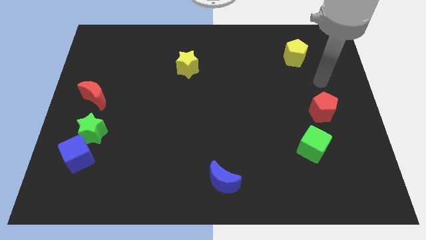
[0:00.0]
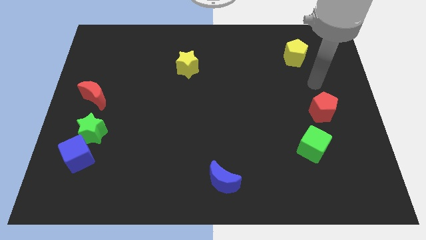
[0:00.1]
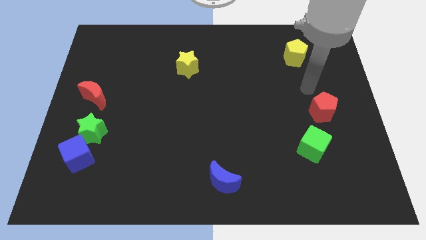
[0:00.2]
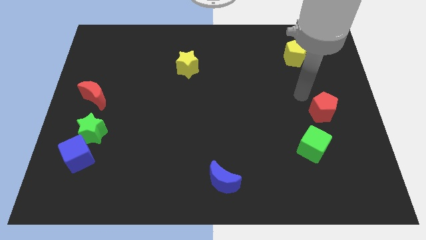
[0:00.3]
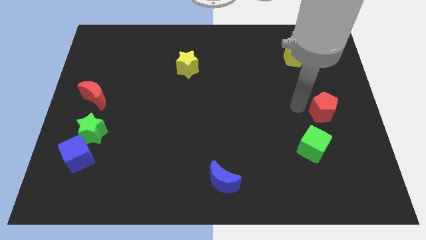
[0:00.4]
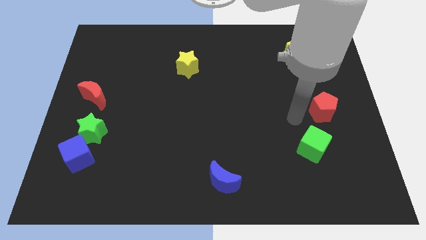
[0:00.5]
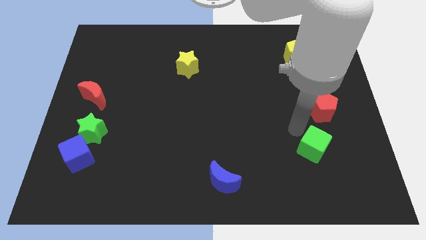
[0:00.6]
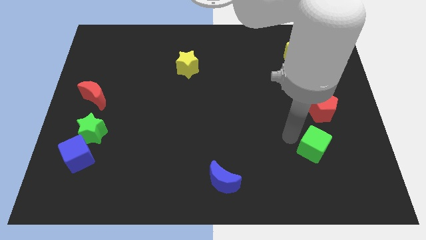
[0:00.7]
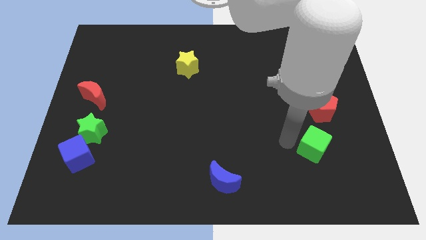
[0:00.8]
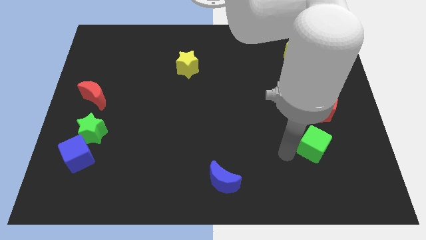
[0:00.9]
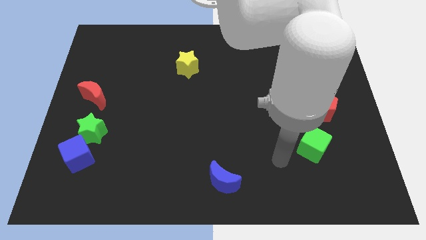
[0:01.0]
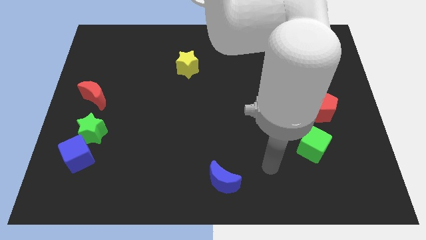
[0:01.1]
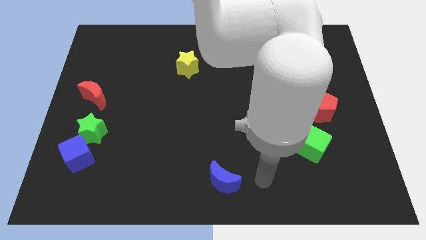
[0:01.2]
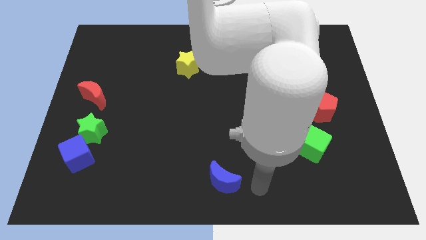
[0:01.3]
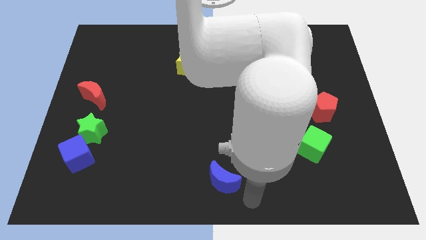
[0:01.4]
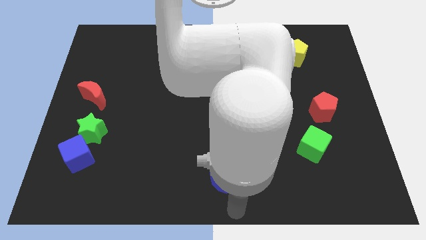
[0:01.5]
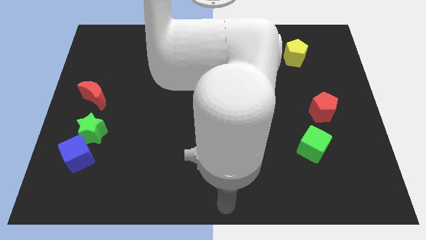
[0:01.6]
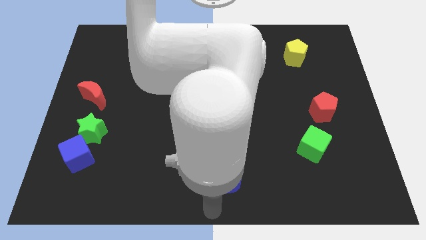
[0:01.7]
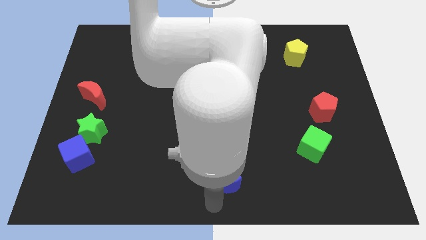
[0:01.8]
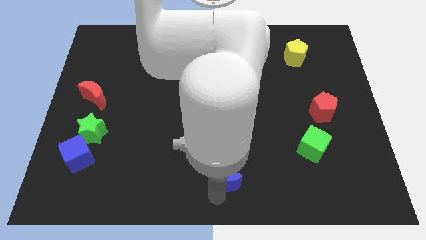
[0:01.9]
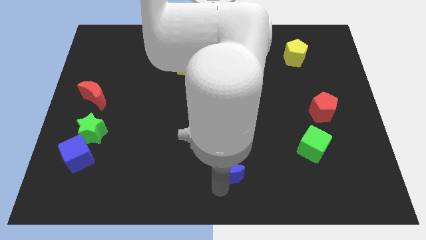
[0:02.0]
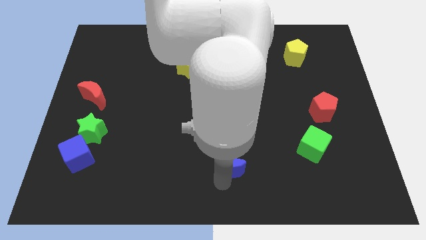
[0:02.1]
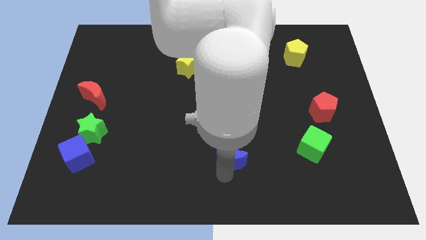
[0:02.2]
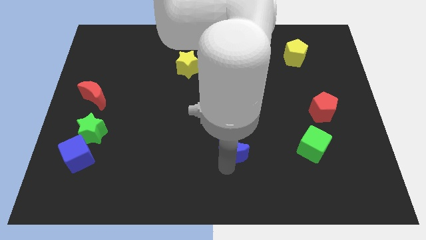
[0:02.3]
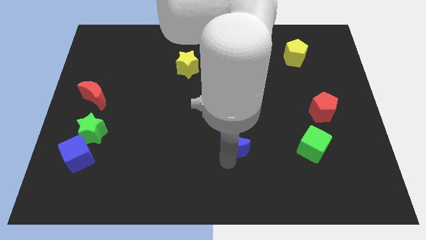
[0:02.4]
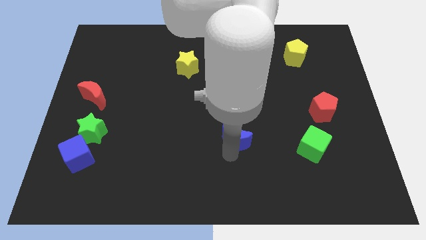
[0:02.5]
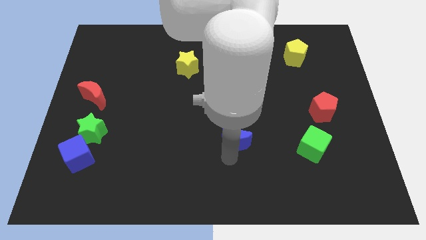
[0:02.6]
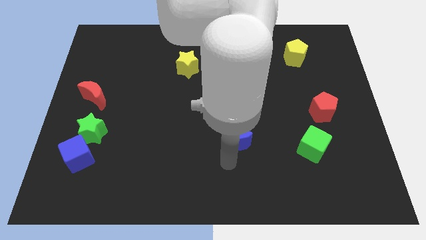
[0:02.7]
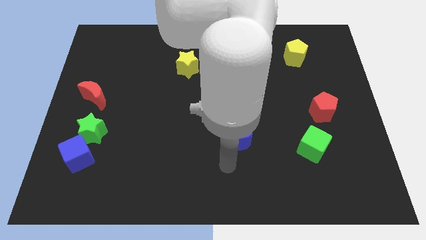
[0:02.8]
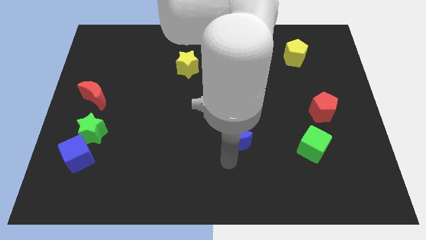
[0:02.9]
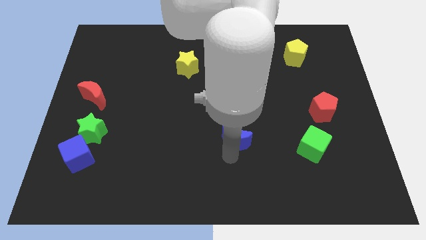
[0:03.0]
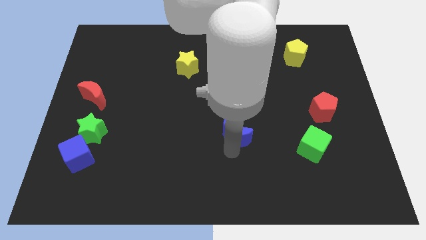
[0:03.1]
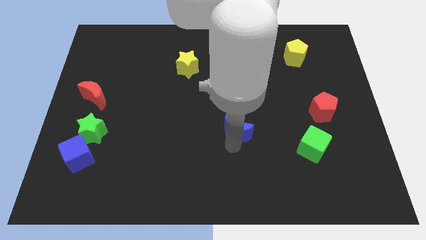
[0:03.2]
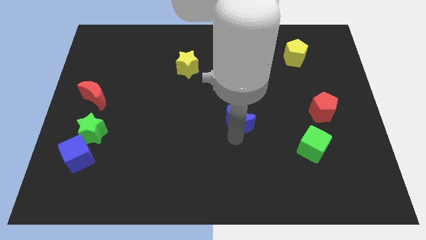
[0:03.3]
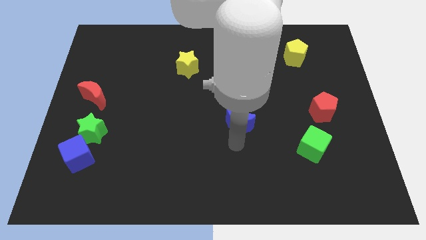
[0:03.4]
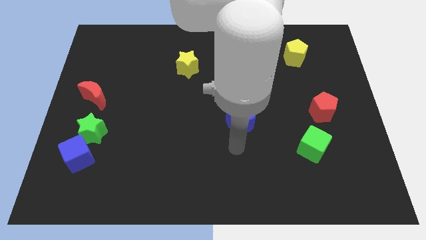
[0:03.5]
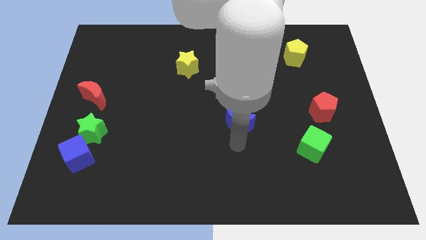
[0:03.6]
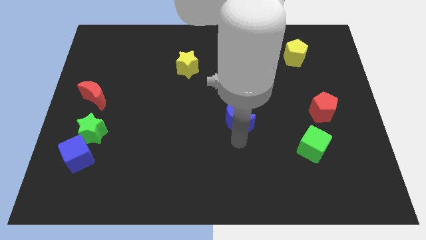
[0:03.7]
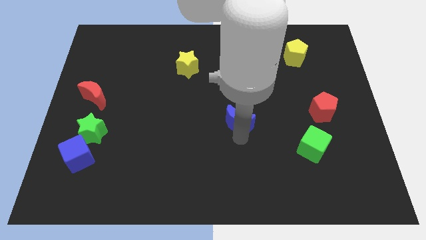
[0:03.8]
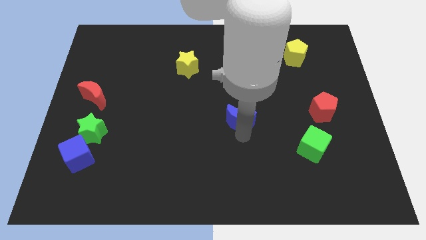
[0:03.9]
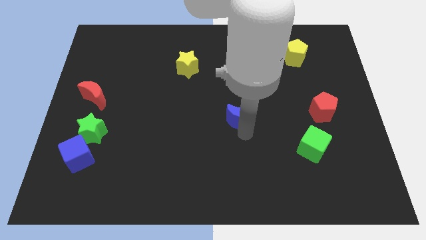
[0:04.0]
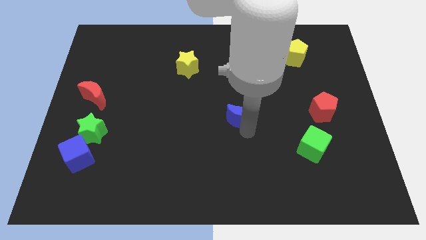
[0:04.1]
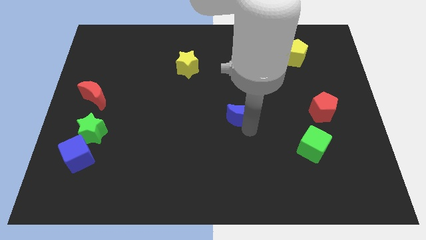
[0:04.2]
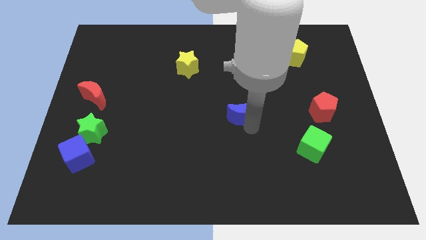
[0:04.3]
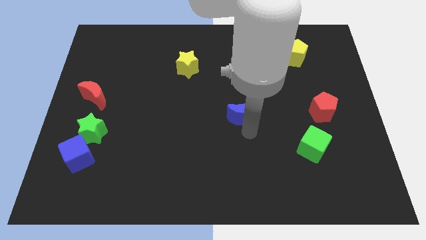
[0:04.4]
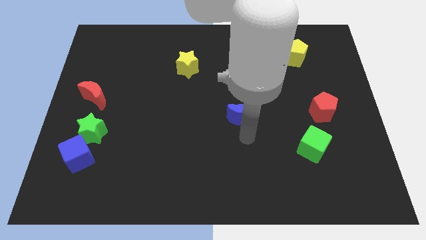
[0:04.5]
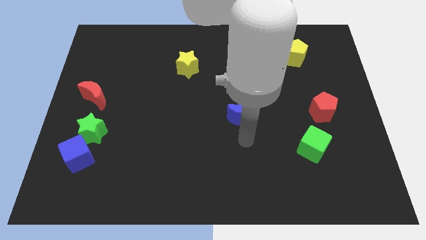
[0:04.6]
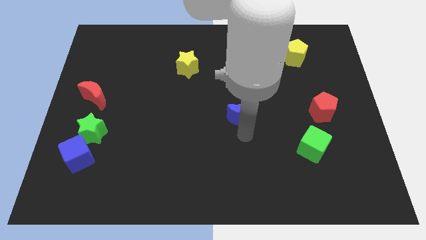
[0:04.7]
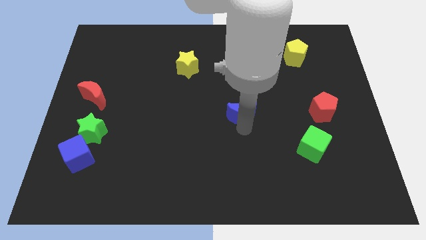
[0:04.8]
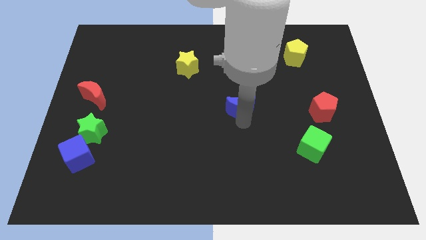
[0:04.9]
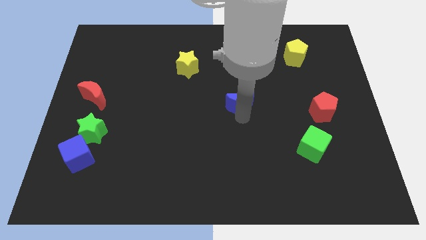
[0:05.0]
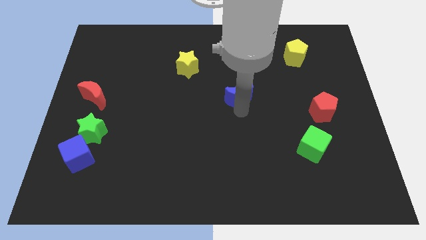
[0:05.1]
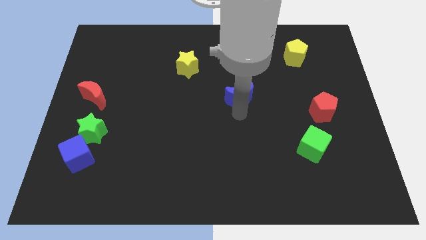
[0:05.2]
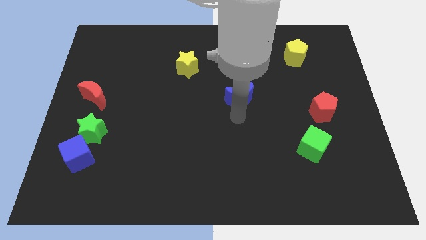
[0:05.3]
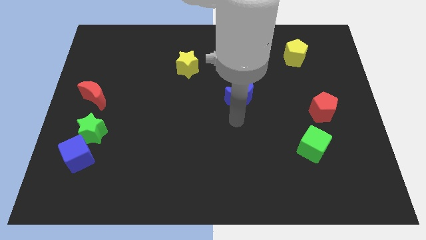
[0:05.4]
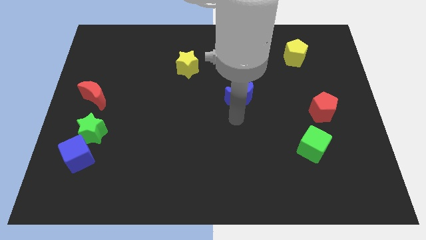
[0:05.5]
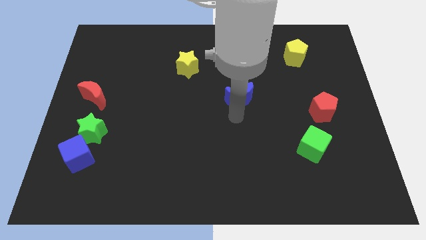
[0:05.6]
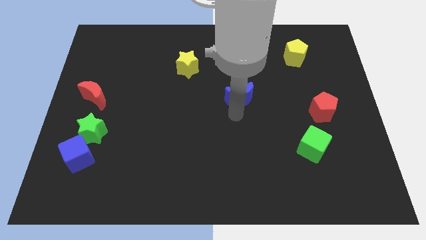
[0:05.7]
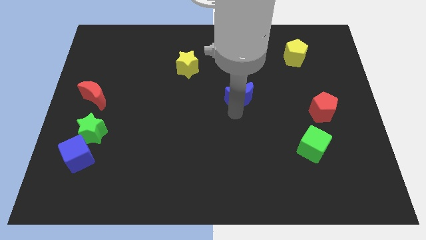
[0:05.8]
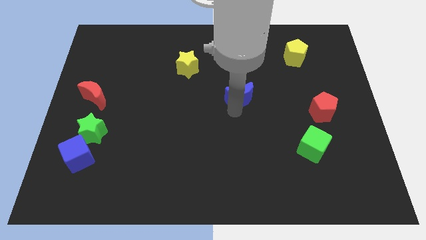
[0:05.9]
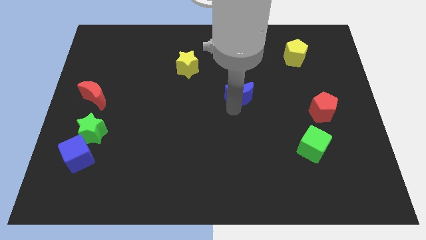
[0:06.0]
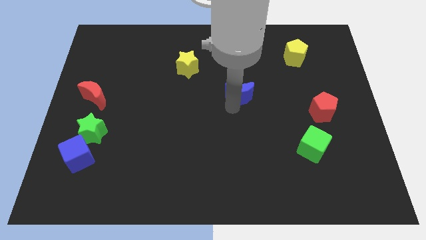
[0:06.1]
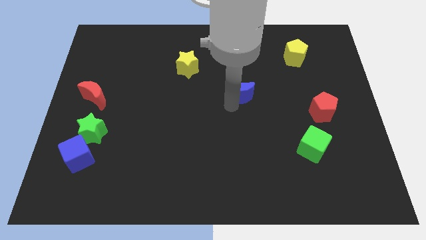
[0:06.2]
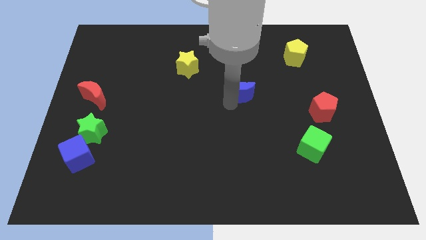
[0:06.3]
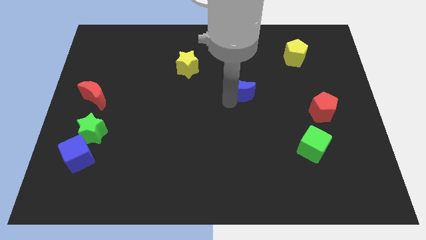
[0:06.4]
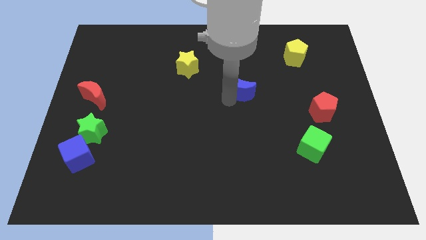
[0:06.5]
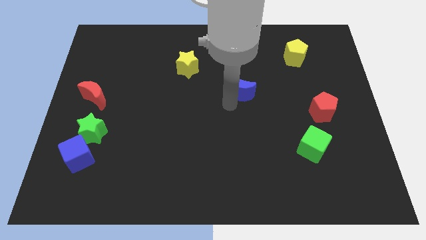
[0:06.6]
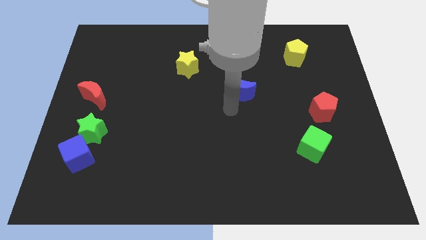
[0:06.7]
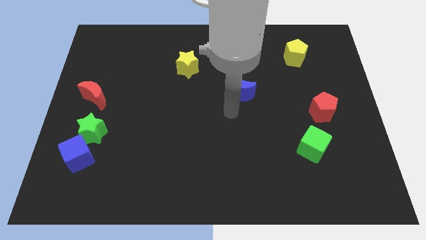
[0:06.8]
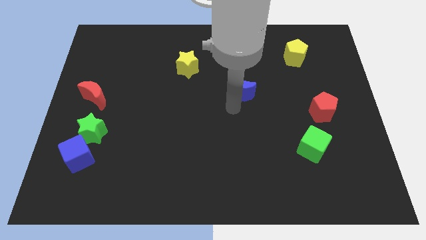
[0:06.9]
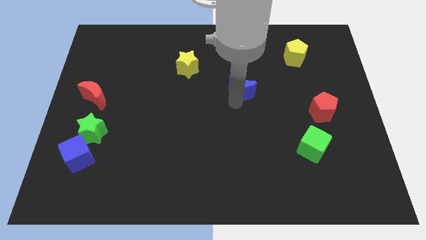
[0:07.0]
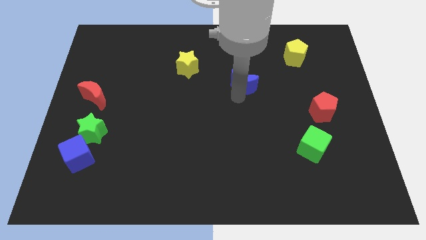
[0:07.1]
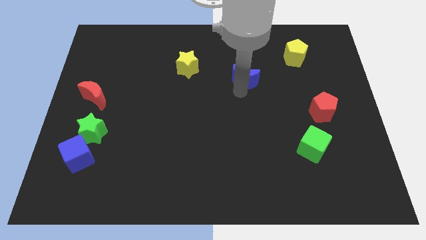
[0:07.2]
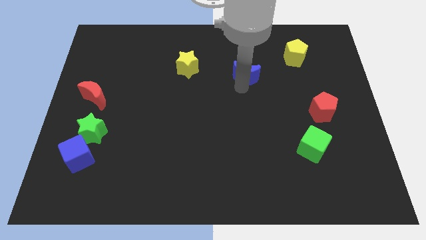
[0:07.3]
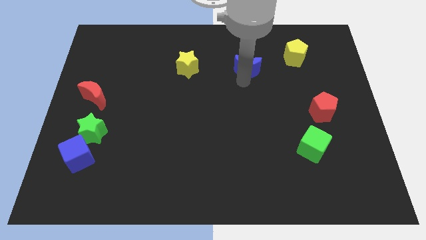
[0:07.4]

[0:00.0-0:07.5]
put the blue moon left of the yellow pentagon

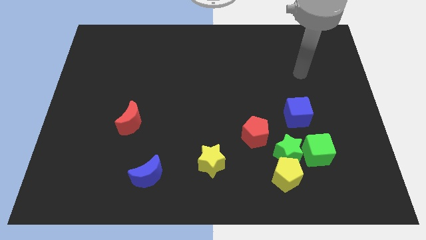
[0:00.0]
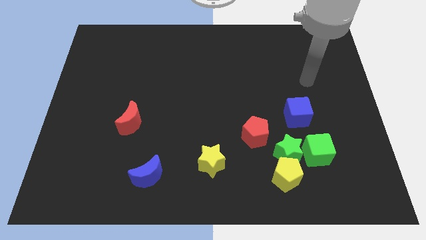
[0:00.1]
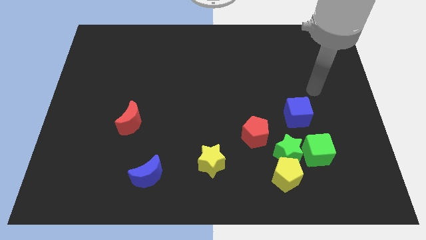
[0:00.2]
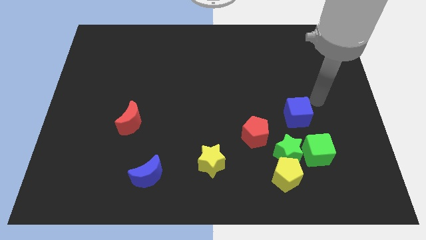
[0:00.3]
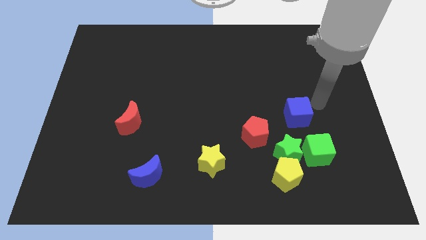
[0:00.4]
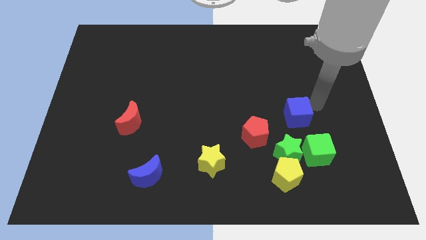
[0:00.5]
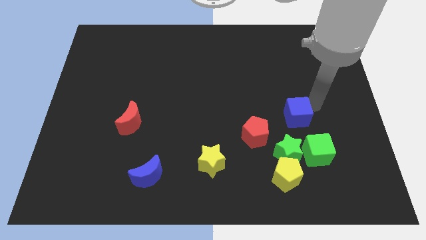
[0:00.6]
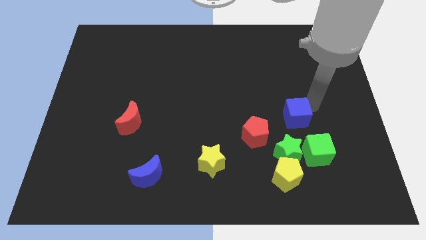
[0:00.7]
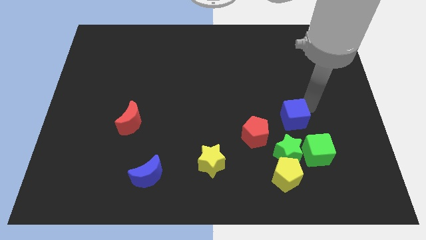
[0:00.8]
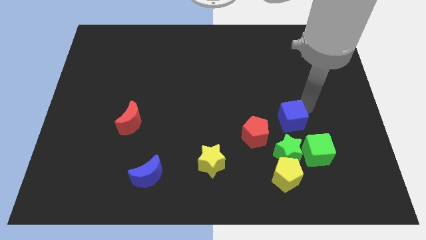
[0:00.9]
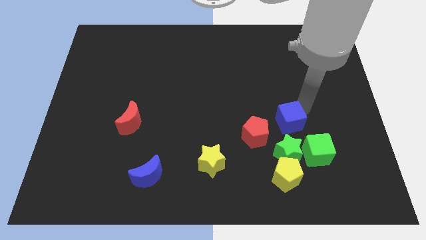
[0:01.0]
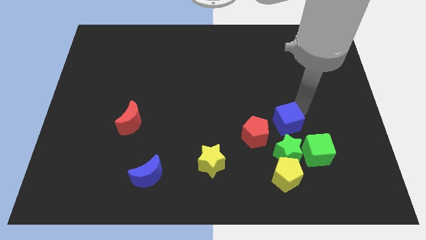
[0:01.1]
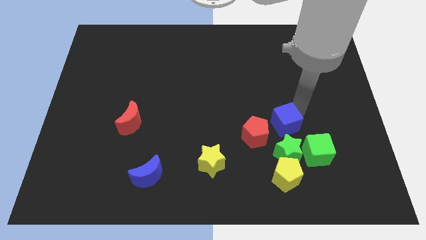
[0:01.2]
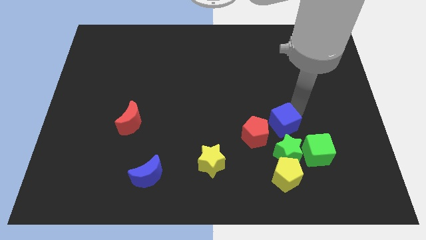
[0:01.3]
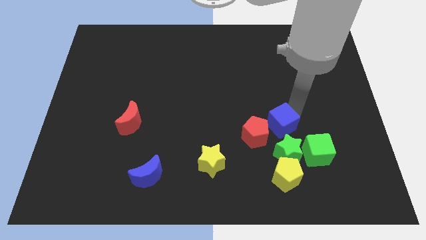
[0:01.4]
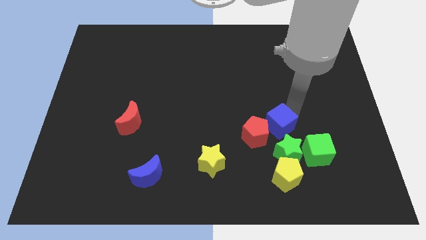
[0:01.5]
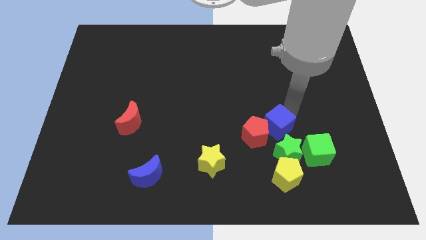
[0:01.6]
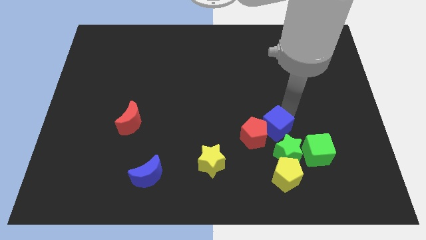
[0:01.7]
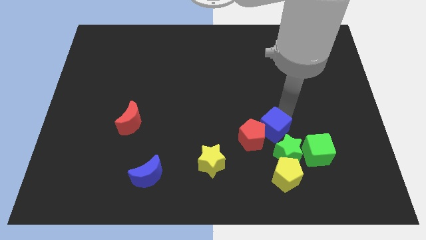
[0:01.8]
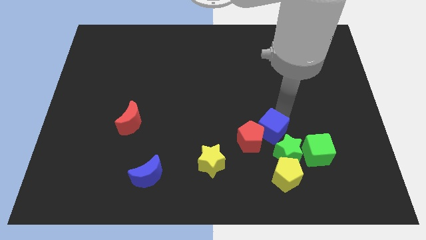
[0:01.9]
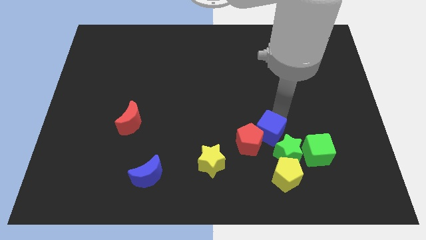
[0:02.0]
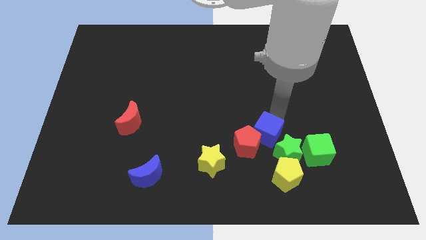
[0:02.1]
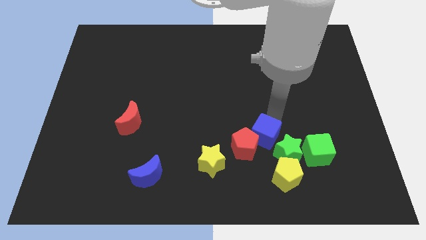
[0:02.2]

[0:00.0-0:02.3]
slide the blue cube to the left side of the green cube
